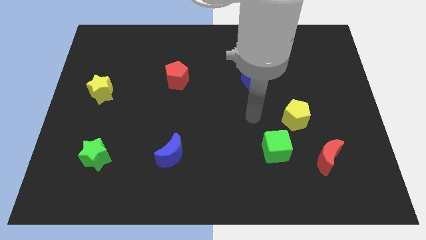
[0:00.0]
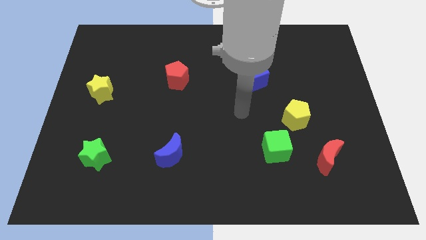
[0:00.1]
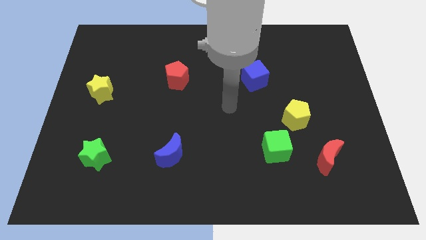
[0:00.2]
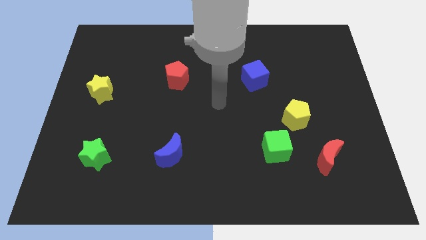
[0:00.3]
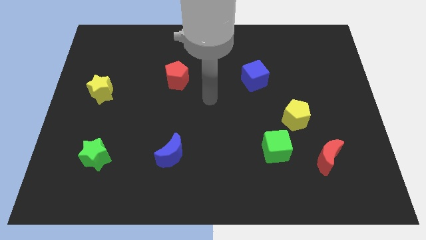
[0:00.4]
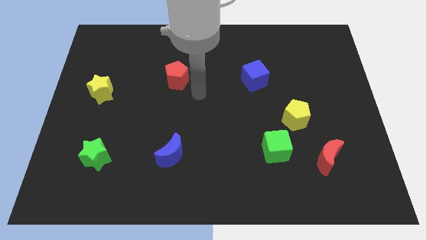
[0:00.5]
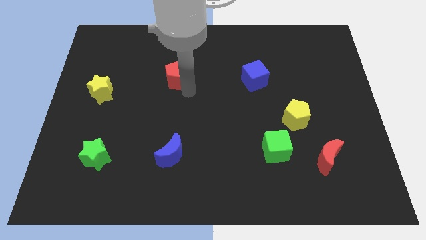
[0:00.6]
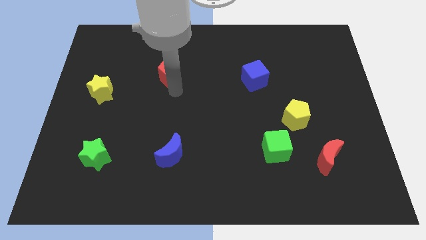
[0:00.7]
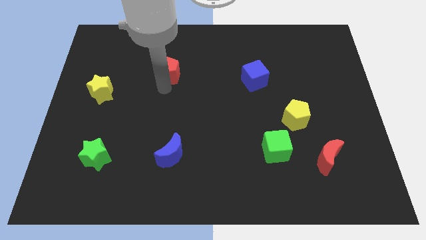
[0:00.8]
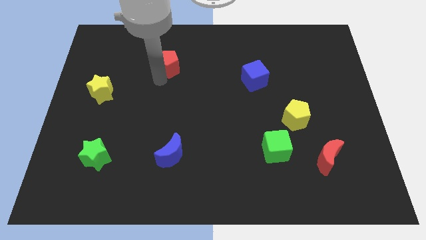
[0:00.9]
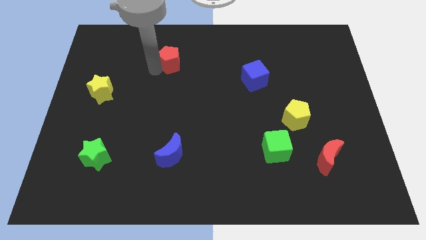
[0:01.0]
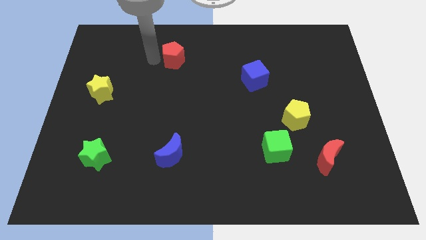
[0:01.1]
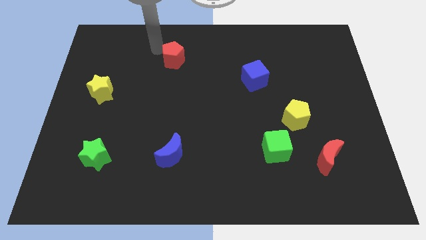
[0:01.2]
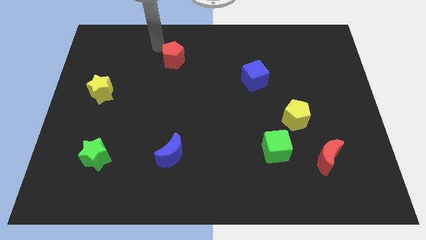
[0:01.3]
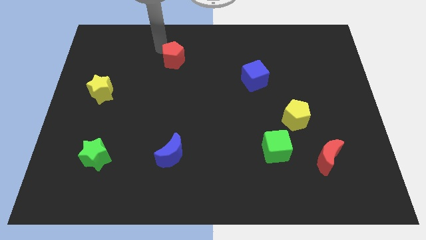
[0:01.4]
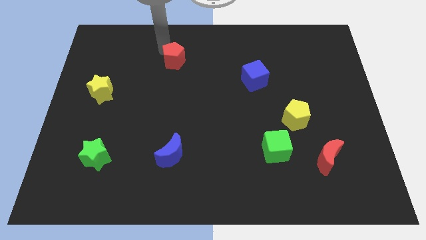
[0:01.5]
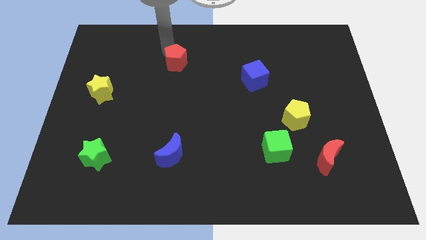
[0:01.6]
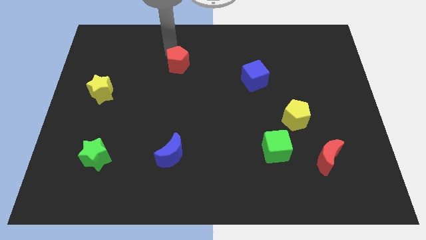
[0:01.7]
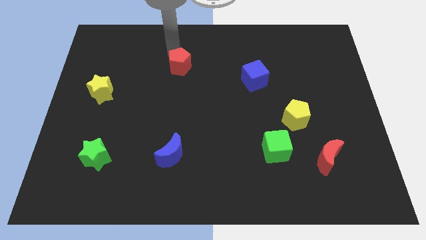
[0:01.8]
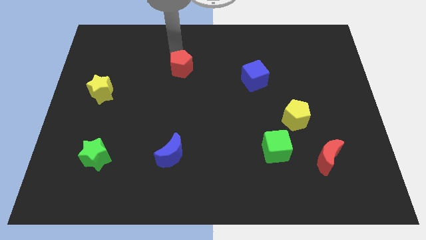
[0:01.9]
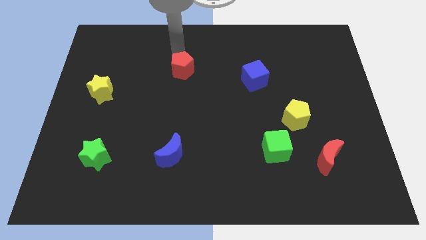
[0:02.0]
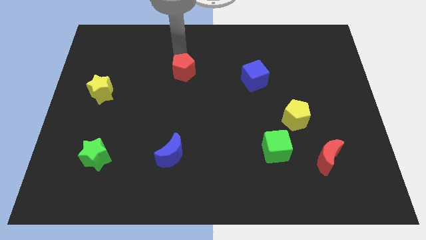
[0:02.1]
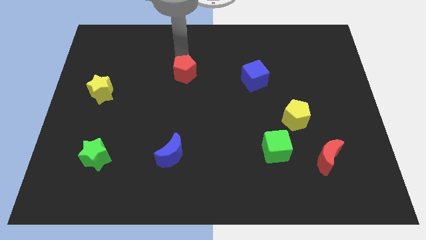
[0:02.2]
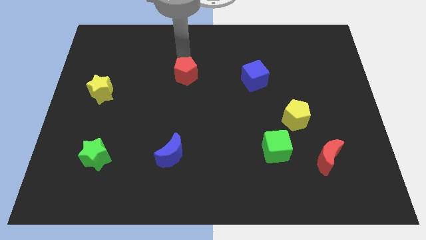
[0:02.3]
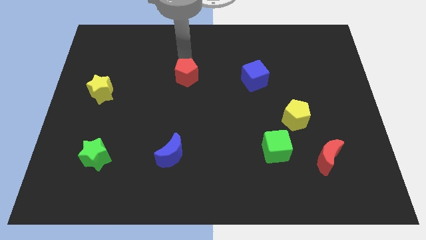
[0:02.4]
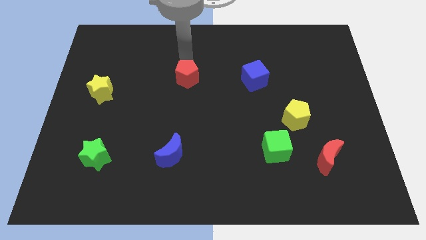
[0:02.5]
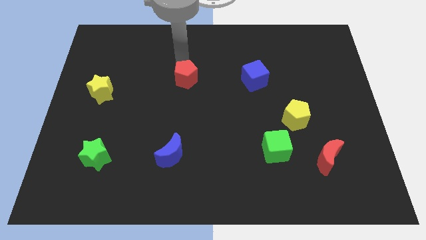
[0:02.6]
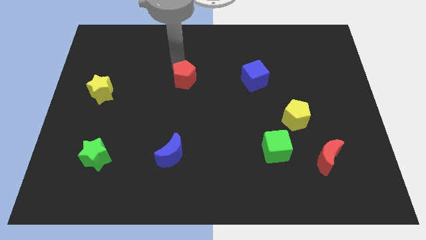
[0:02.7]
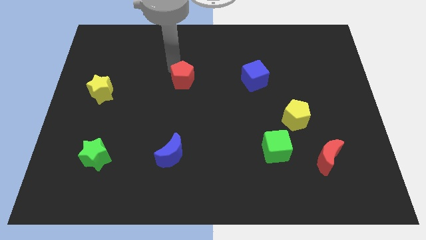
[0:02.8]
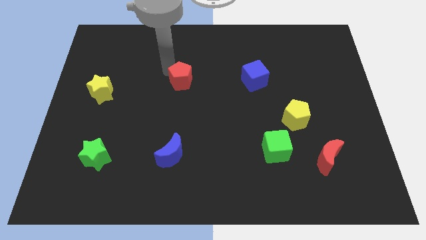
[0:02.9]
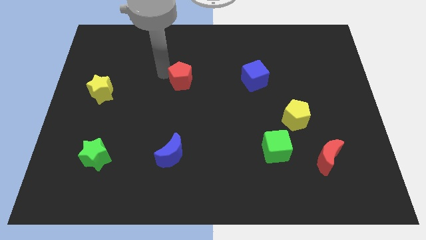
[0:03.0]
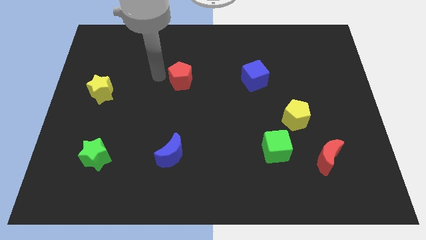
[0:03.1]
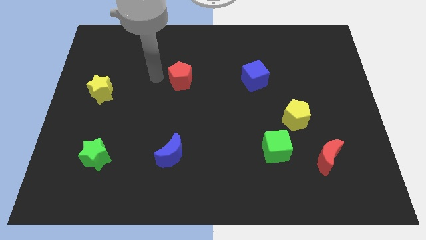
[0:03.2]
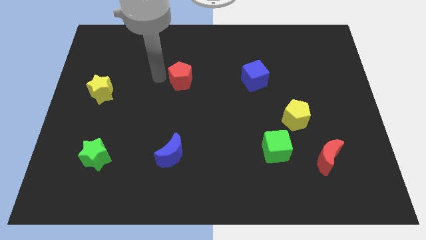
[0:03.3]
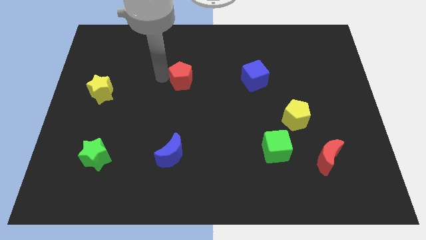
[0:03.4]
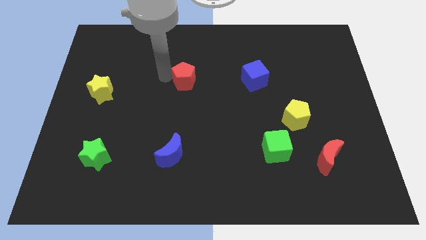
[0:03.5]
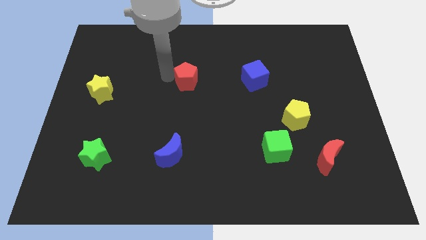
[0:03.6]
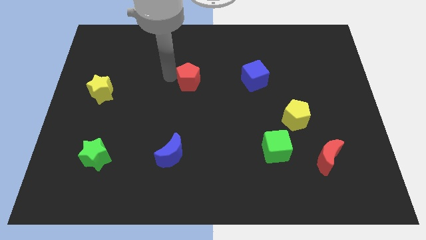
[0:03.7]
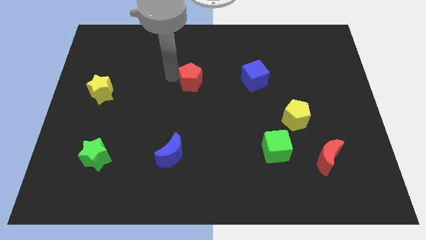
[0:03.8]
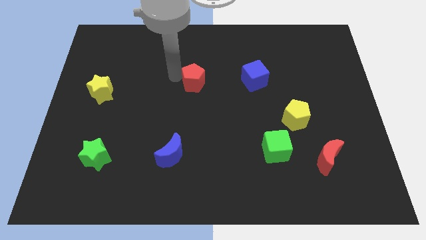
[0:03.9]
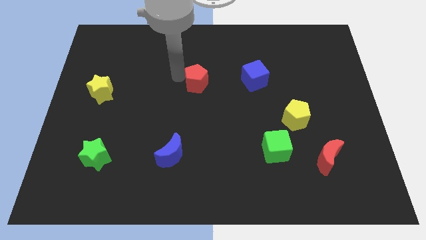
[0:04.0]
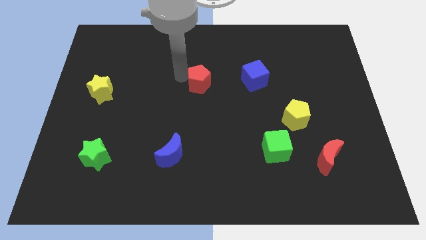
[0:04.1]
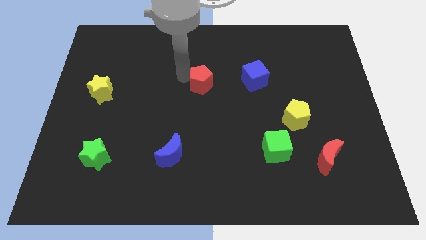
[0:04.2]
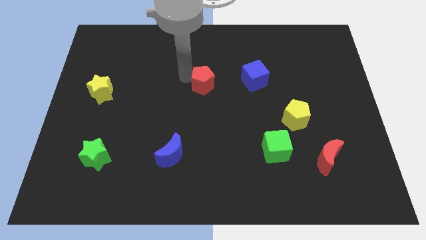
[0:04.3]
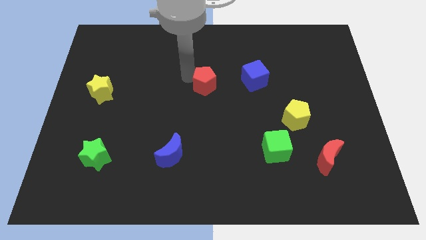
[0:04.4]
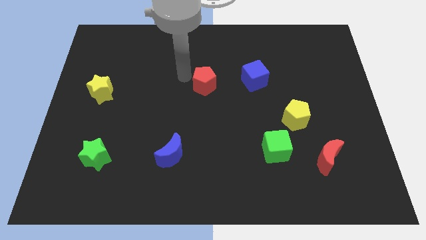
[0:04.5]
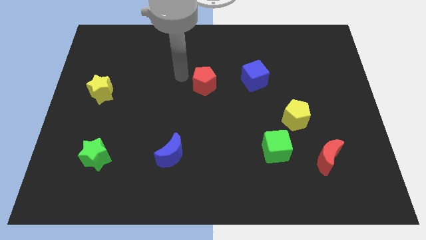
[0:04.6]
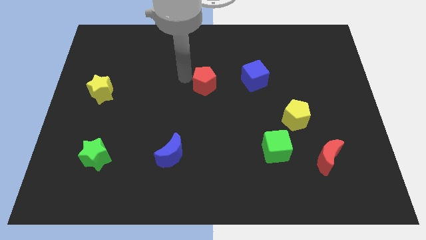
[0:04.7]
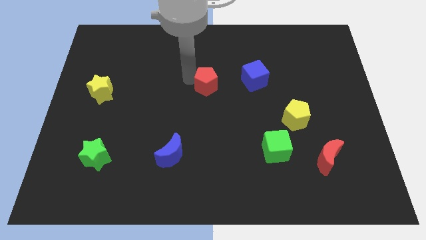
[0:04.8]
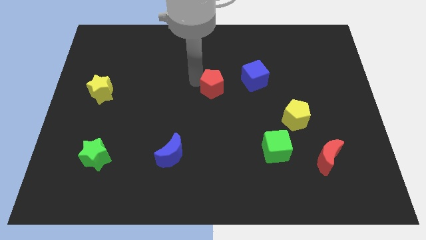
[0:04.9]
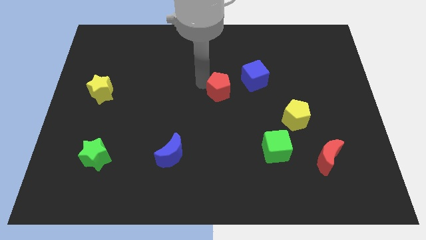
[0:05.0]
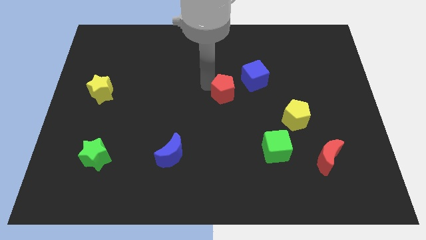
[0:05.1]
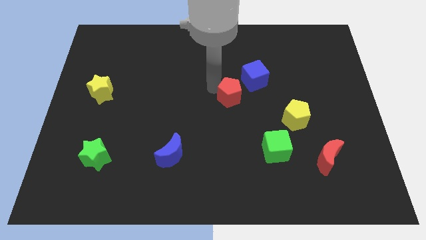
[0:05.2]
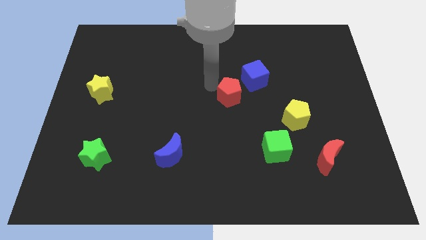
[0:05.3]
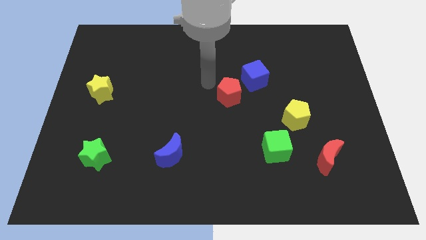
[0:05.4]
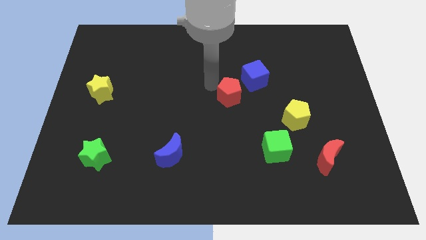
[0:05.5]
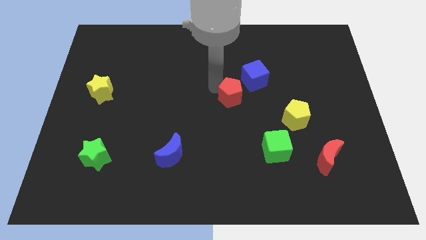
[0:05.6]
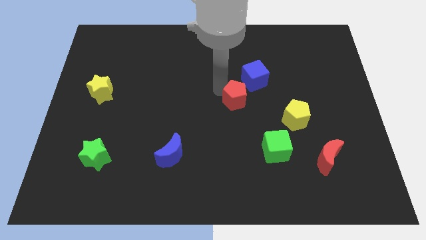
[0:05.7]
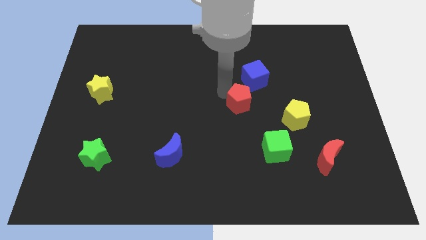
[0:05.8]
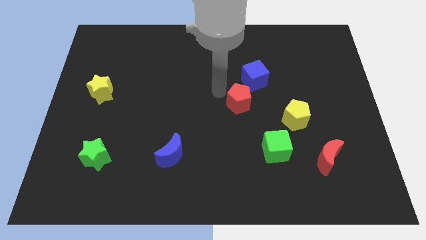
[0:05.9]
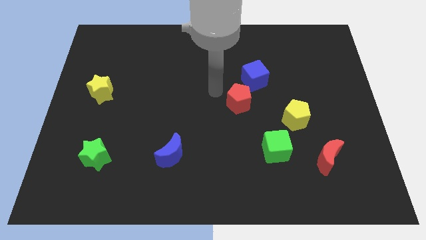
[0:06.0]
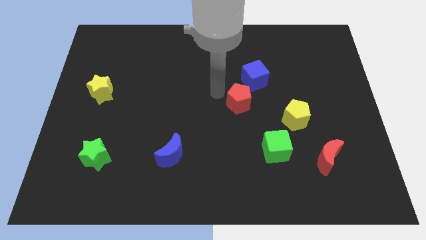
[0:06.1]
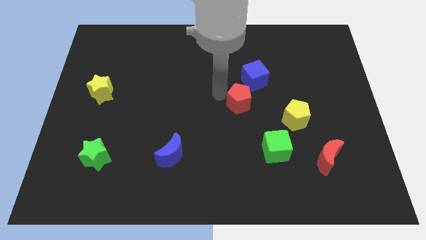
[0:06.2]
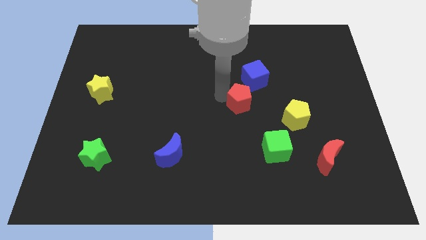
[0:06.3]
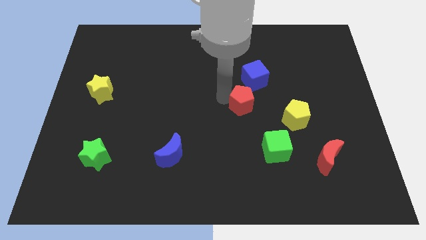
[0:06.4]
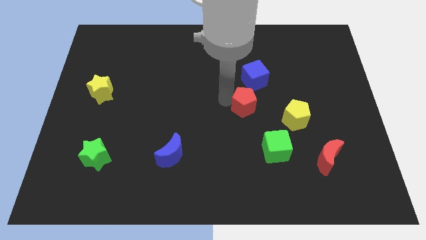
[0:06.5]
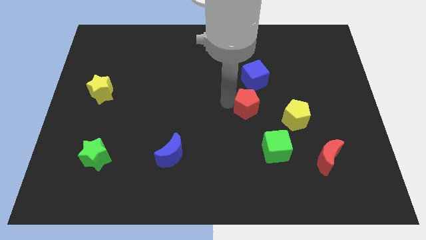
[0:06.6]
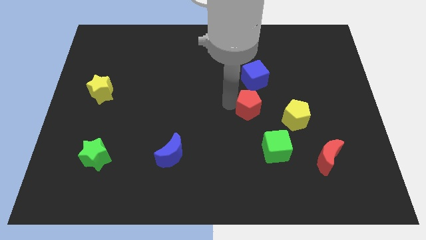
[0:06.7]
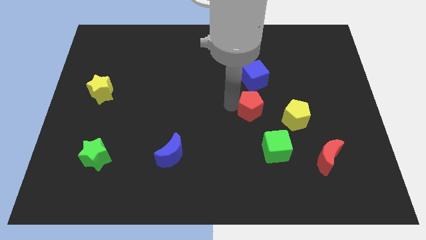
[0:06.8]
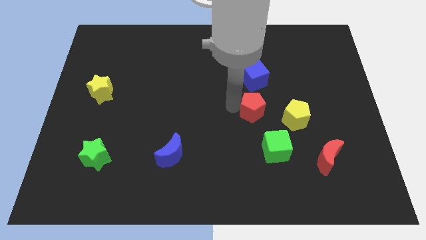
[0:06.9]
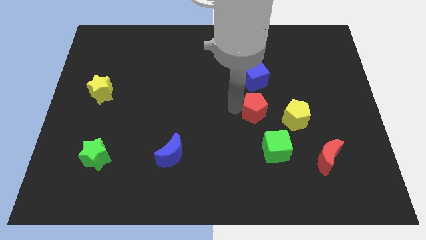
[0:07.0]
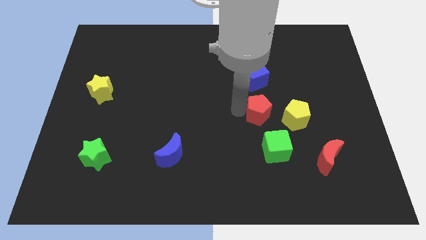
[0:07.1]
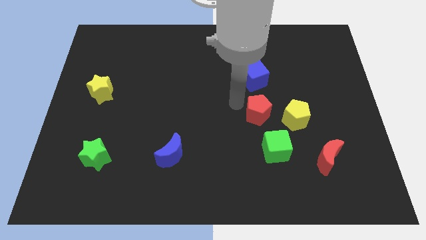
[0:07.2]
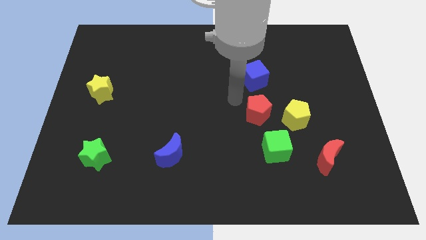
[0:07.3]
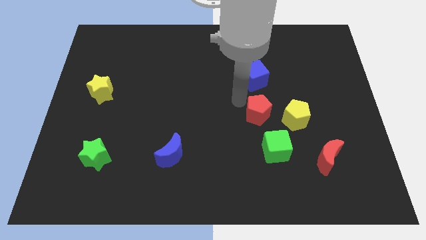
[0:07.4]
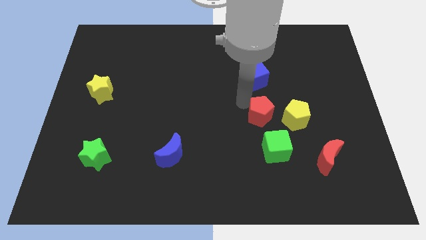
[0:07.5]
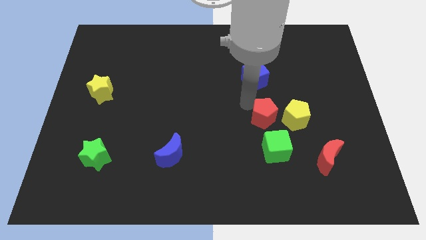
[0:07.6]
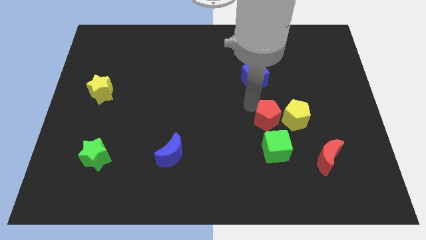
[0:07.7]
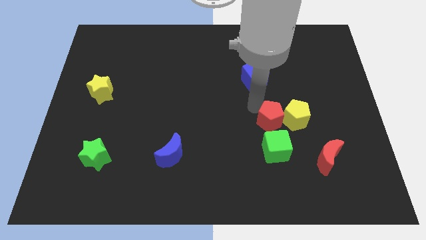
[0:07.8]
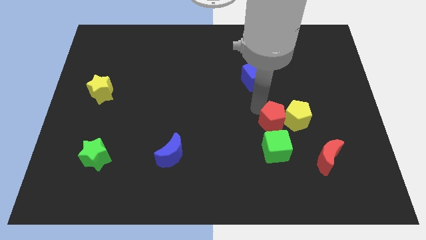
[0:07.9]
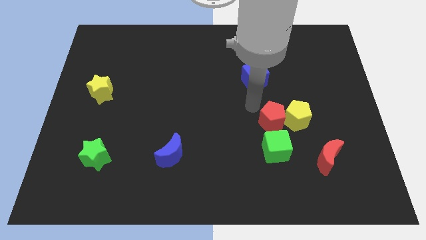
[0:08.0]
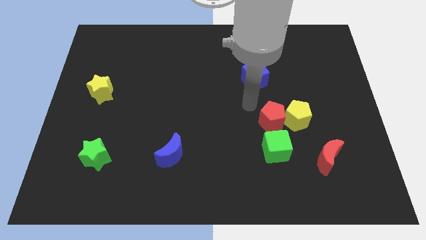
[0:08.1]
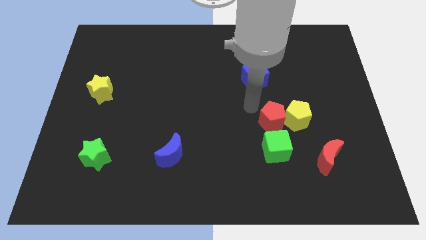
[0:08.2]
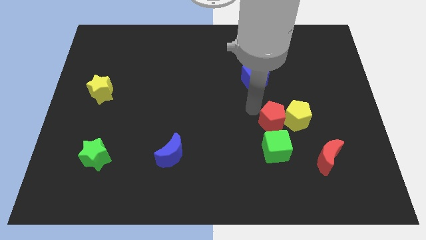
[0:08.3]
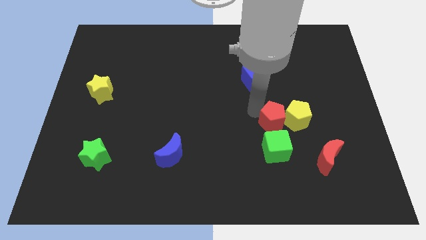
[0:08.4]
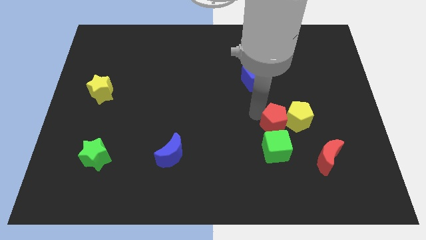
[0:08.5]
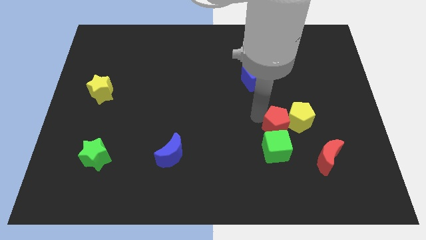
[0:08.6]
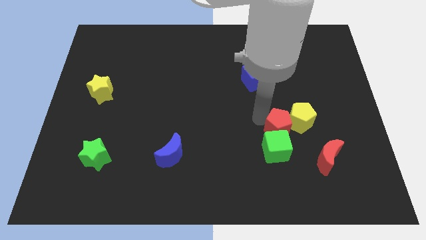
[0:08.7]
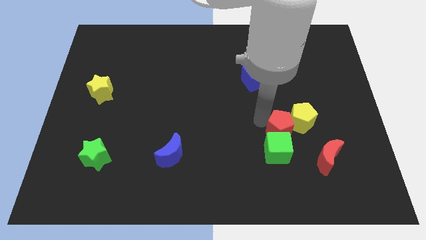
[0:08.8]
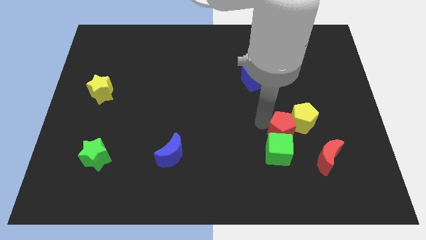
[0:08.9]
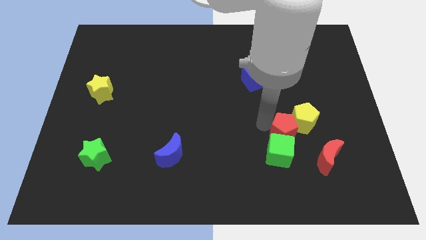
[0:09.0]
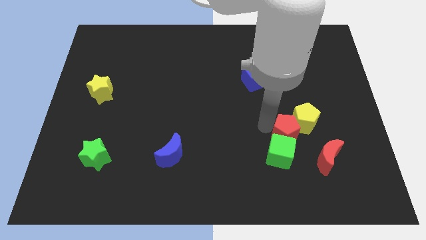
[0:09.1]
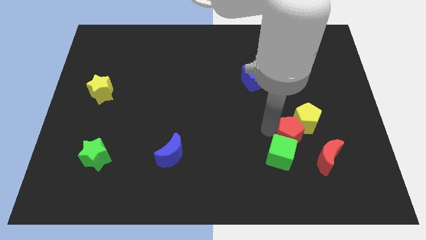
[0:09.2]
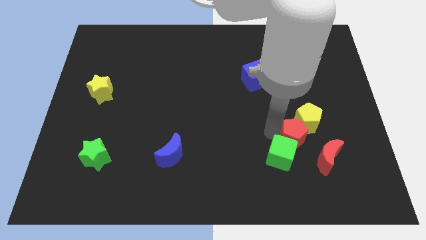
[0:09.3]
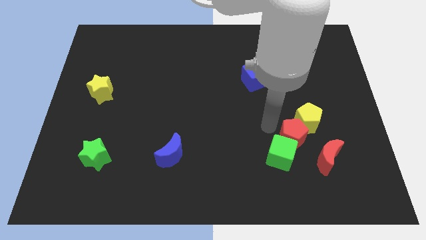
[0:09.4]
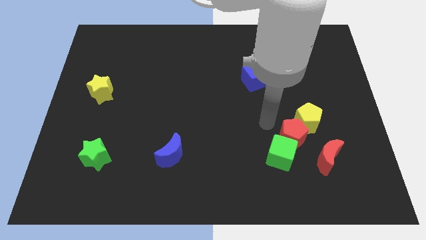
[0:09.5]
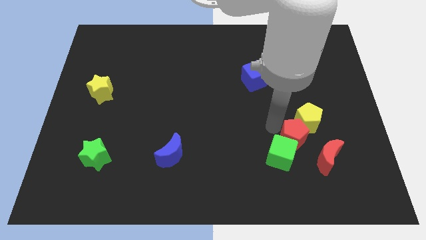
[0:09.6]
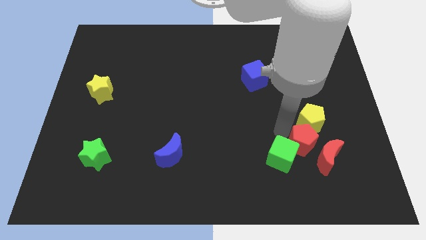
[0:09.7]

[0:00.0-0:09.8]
put the red pentagon close to the red moon
